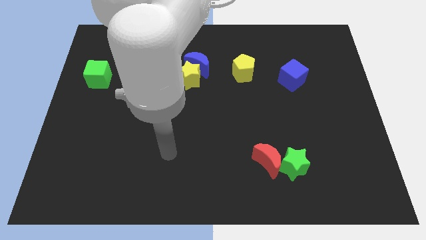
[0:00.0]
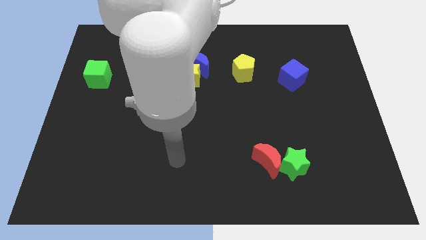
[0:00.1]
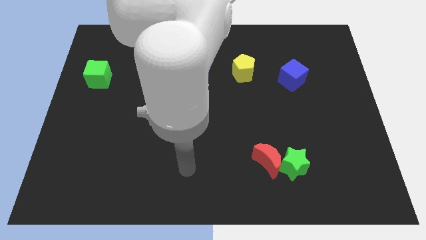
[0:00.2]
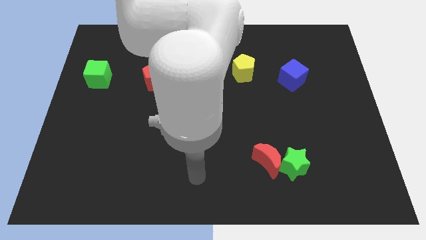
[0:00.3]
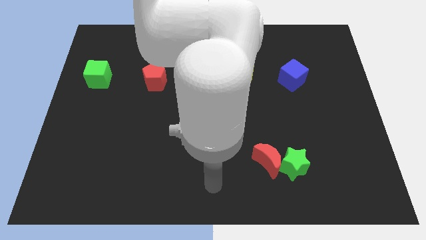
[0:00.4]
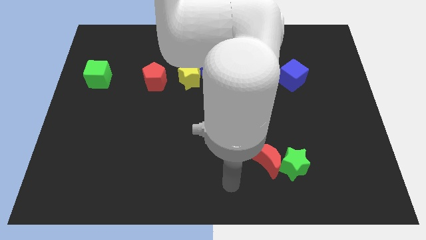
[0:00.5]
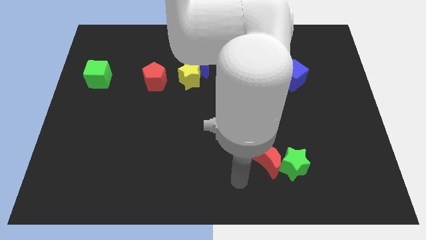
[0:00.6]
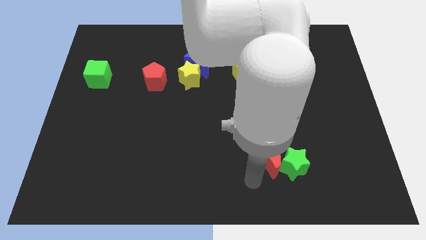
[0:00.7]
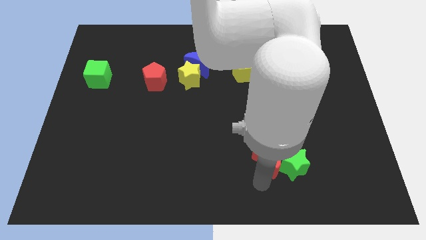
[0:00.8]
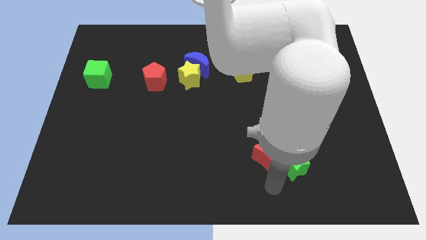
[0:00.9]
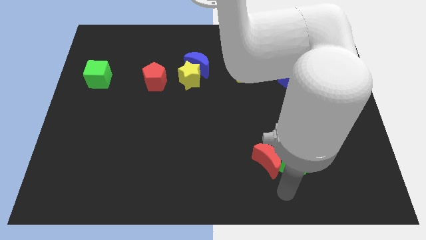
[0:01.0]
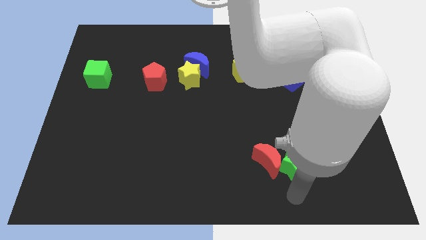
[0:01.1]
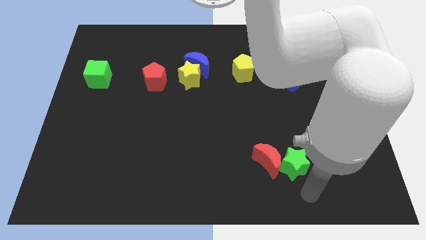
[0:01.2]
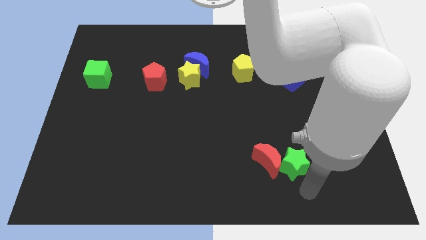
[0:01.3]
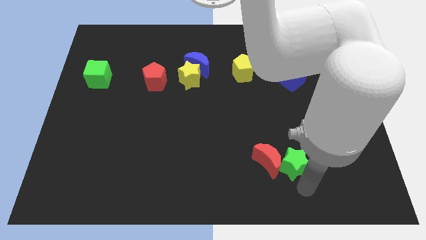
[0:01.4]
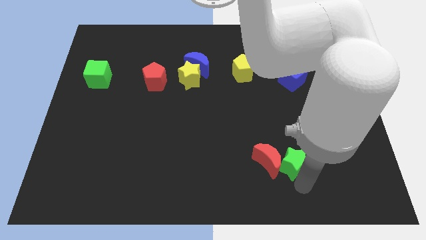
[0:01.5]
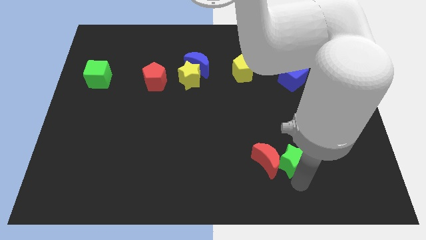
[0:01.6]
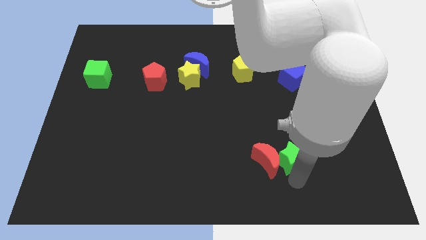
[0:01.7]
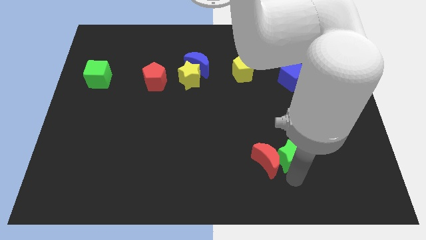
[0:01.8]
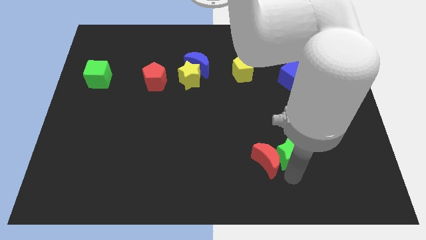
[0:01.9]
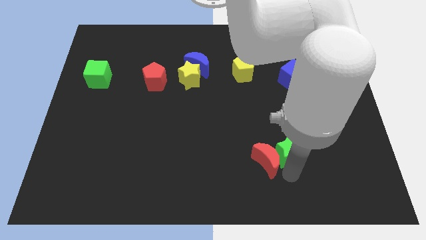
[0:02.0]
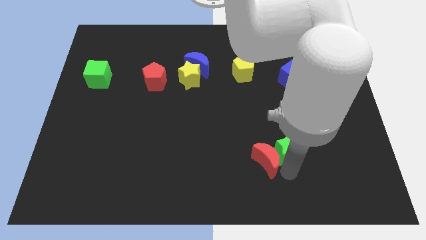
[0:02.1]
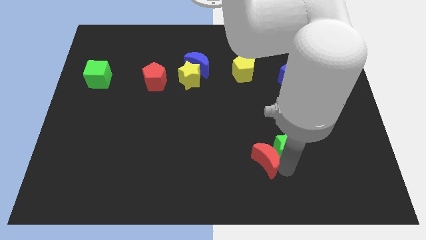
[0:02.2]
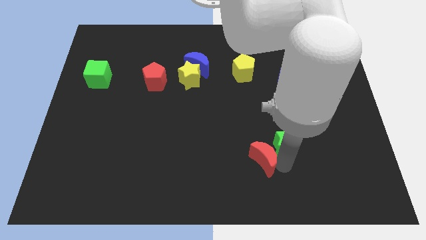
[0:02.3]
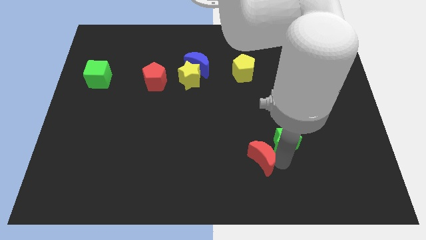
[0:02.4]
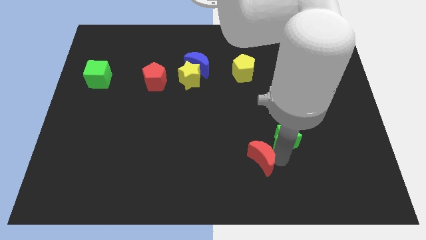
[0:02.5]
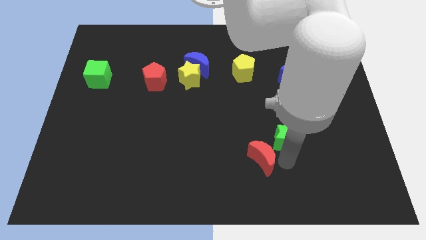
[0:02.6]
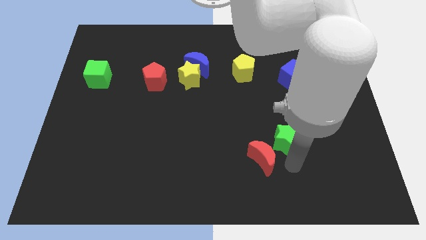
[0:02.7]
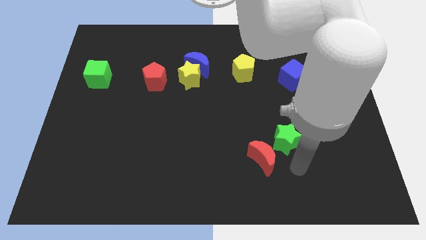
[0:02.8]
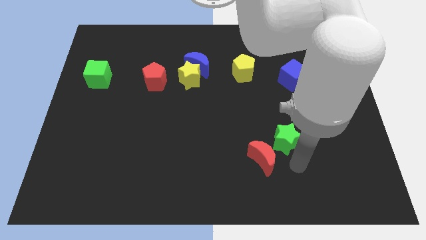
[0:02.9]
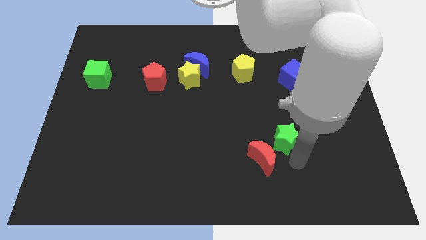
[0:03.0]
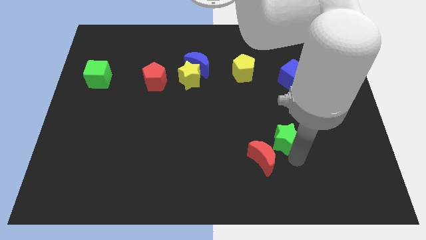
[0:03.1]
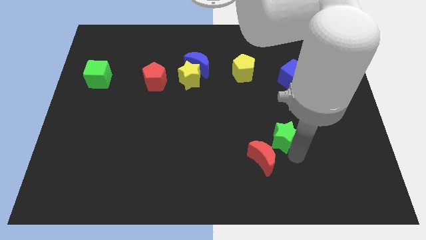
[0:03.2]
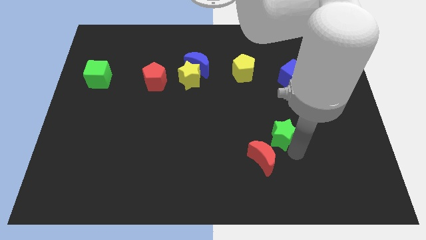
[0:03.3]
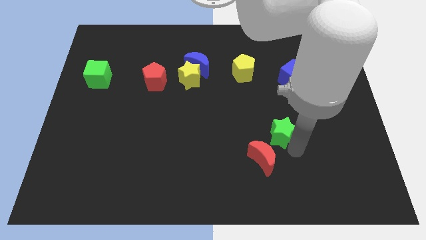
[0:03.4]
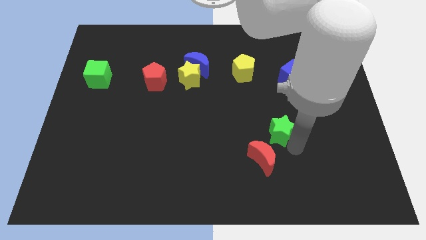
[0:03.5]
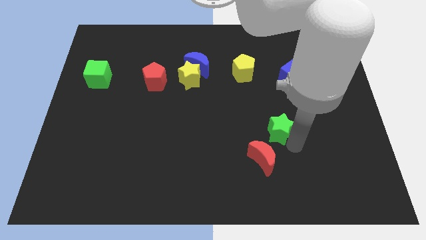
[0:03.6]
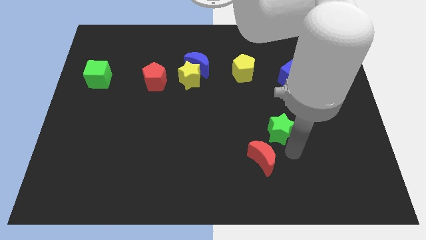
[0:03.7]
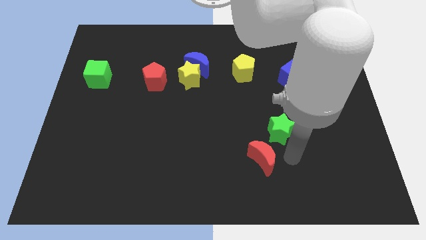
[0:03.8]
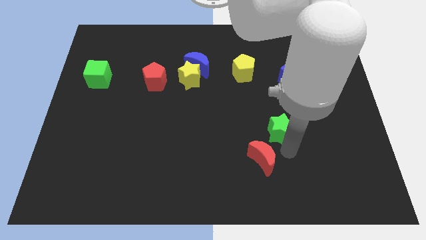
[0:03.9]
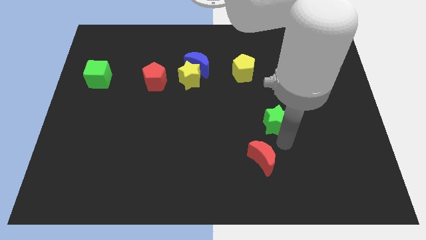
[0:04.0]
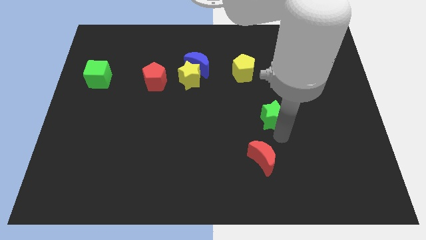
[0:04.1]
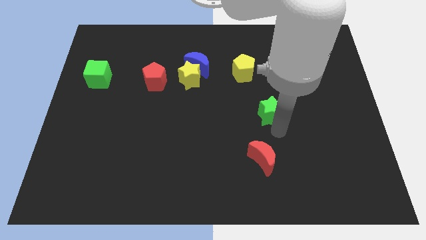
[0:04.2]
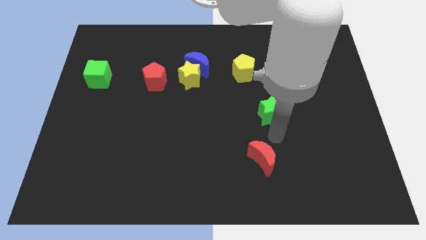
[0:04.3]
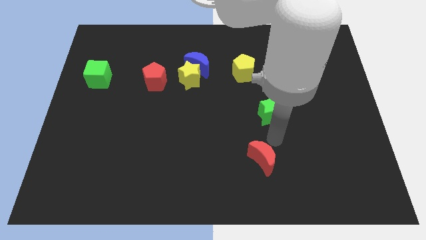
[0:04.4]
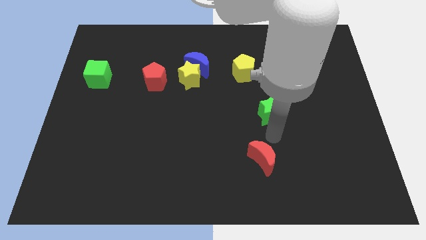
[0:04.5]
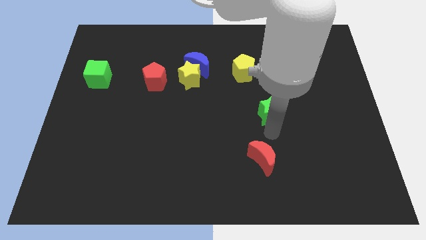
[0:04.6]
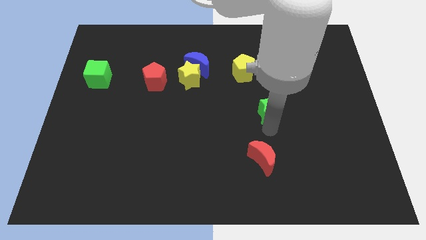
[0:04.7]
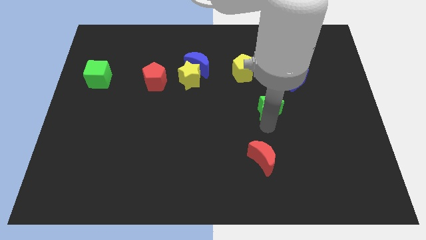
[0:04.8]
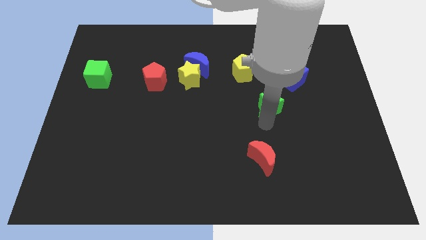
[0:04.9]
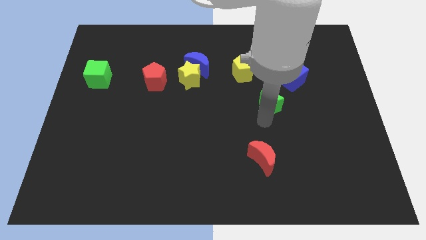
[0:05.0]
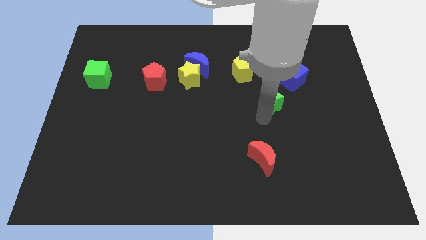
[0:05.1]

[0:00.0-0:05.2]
push the green star to the bottom right of the yellow pentagon

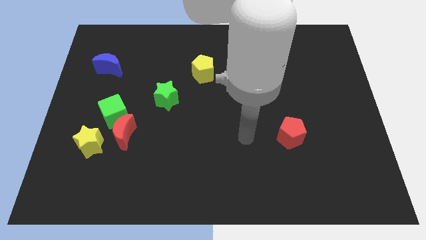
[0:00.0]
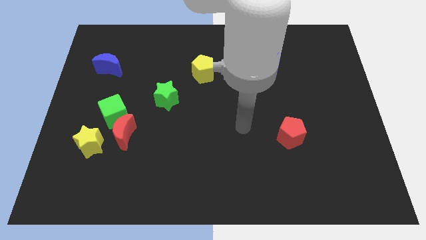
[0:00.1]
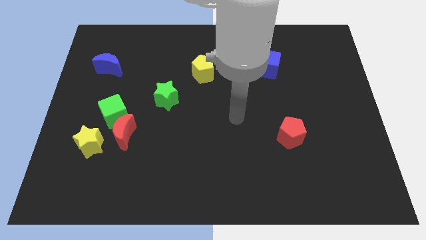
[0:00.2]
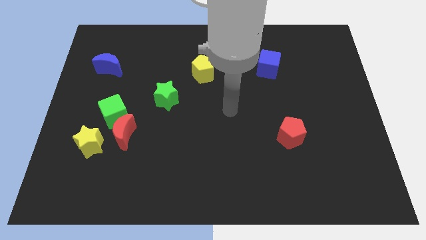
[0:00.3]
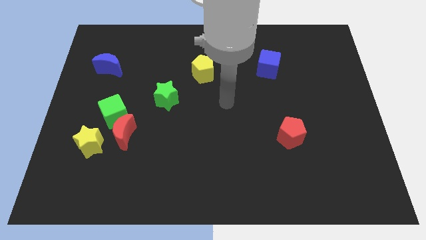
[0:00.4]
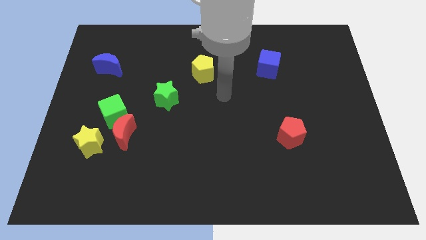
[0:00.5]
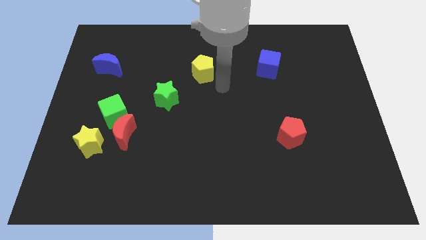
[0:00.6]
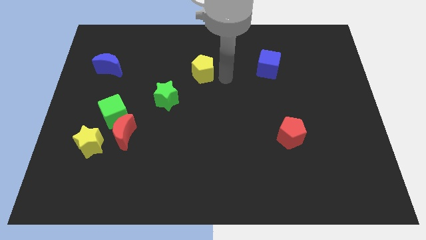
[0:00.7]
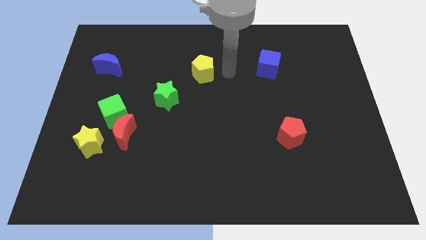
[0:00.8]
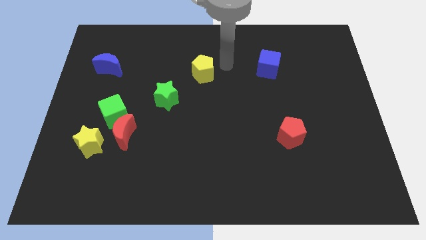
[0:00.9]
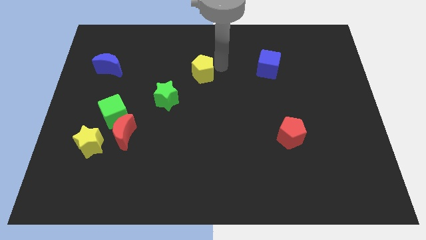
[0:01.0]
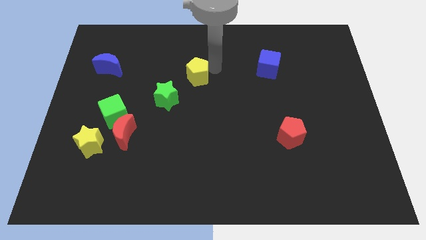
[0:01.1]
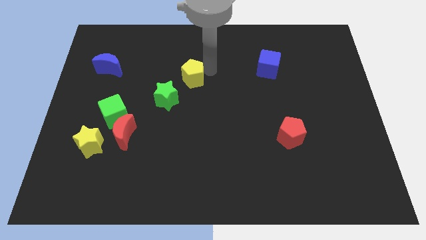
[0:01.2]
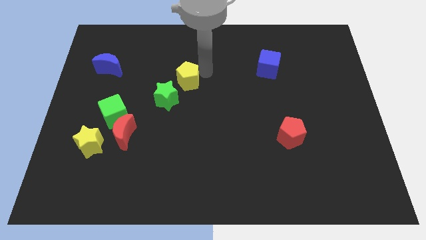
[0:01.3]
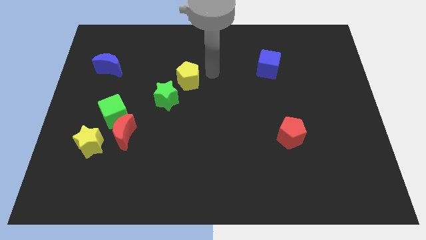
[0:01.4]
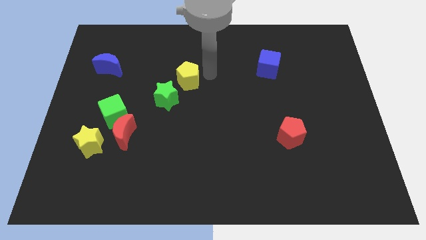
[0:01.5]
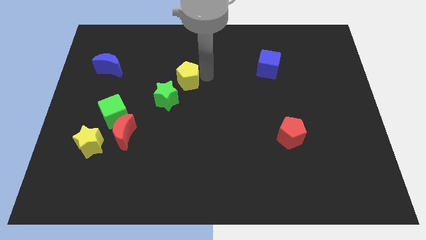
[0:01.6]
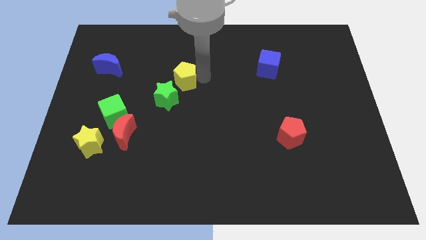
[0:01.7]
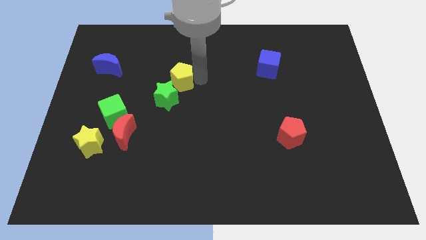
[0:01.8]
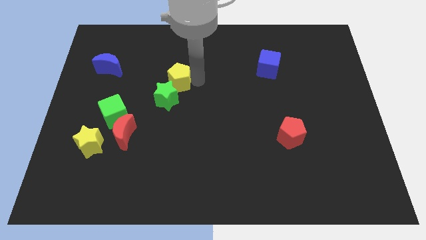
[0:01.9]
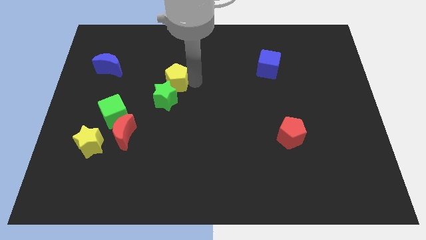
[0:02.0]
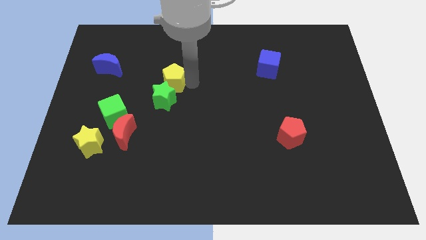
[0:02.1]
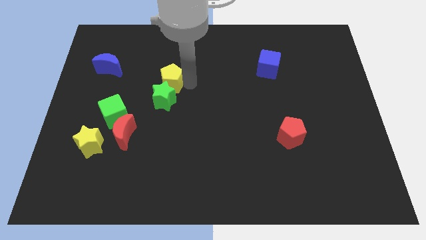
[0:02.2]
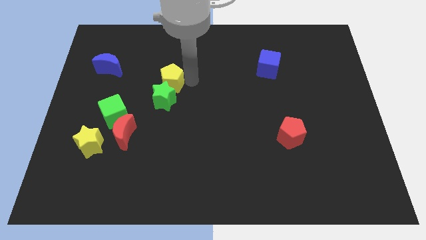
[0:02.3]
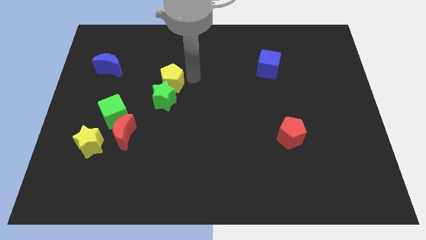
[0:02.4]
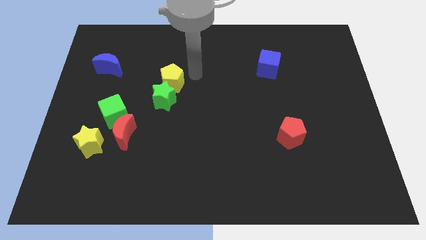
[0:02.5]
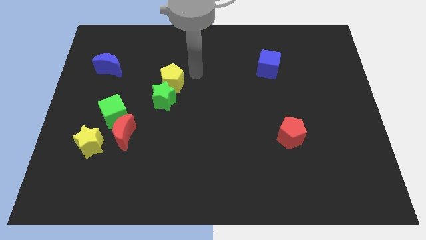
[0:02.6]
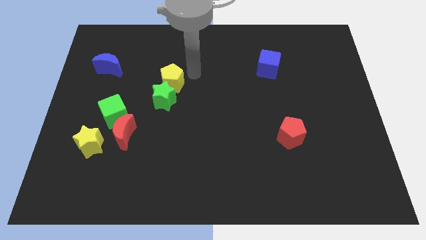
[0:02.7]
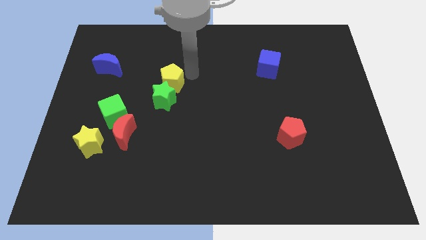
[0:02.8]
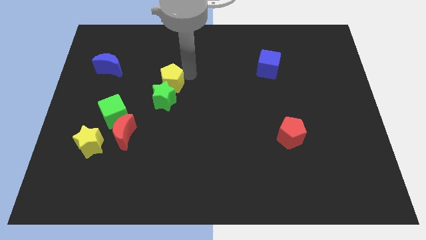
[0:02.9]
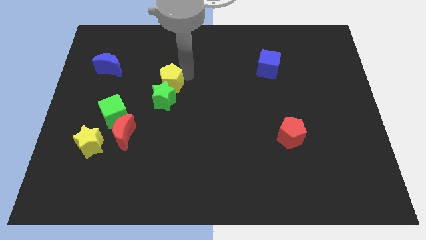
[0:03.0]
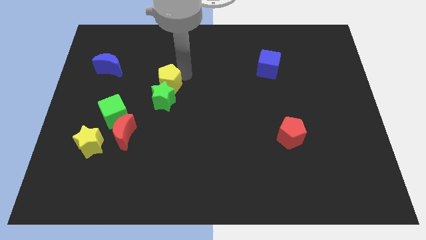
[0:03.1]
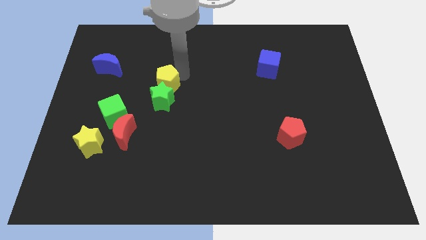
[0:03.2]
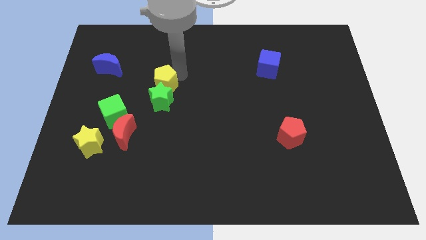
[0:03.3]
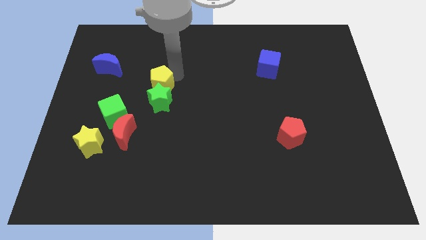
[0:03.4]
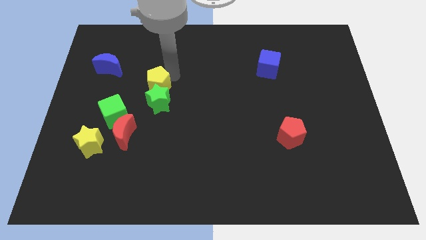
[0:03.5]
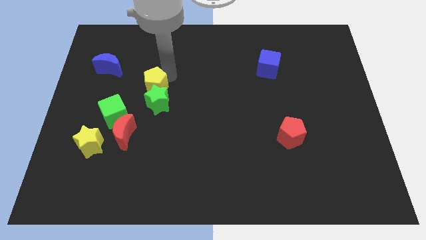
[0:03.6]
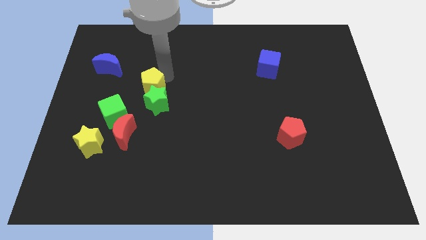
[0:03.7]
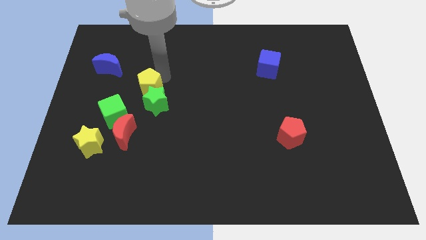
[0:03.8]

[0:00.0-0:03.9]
put the yellow pentagon to the top of the red moon
